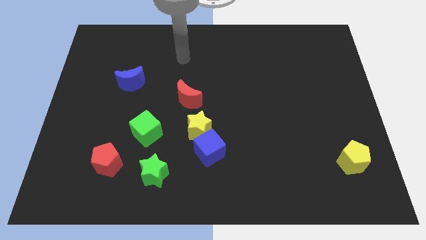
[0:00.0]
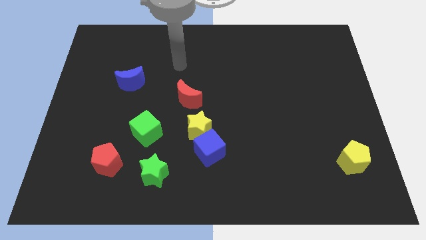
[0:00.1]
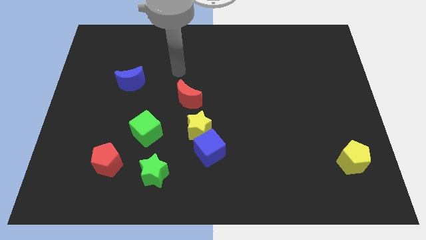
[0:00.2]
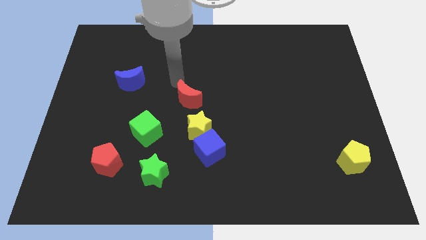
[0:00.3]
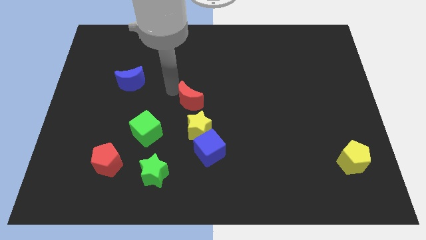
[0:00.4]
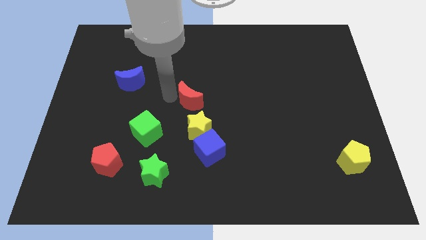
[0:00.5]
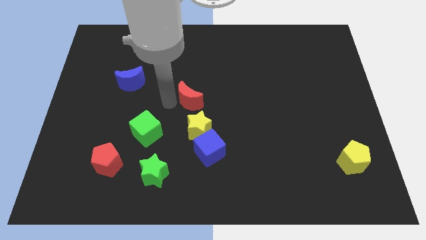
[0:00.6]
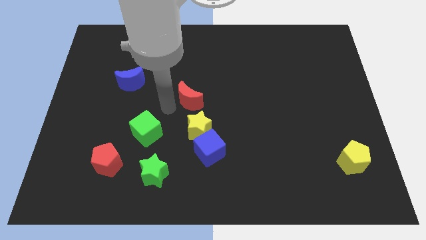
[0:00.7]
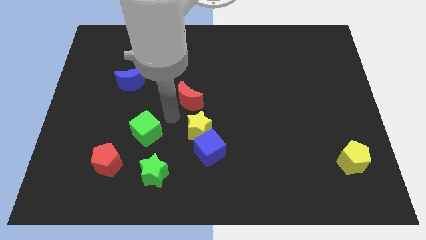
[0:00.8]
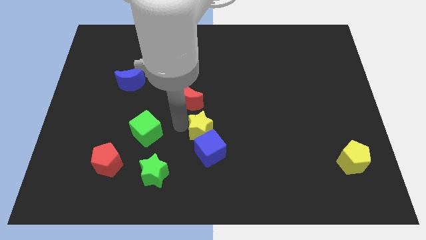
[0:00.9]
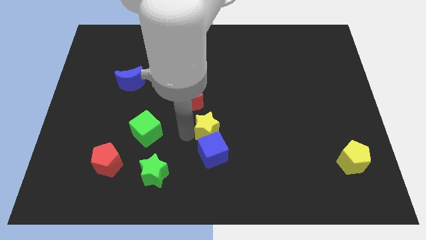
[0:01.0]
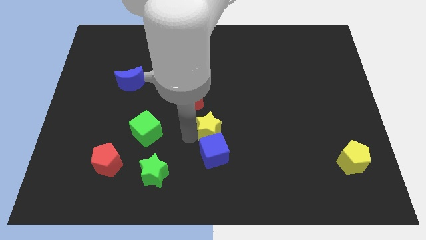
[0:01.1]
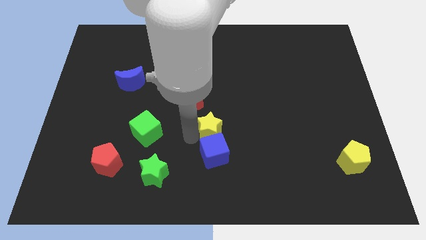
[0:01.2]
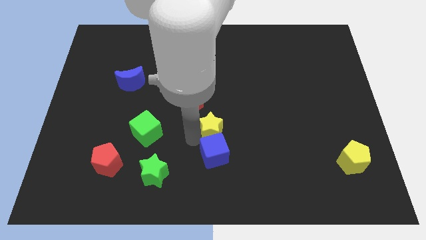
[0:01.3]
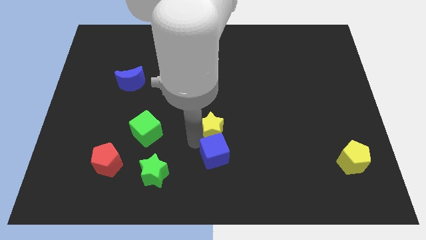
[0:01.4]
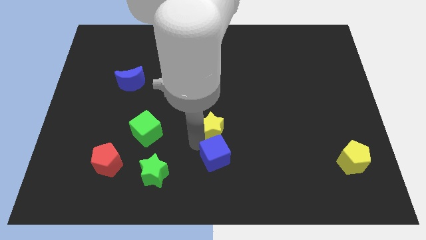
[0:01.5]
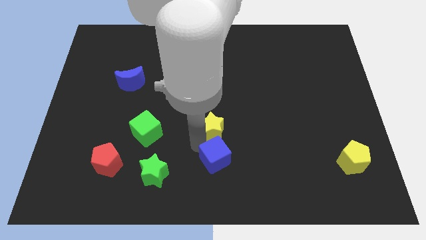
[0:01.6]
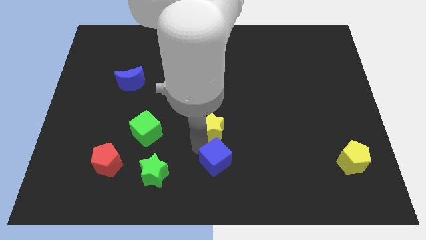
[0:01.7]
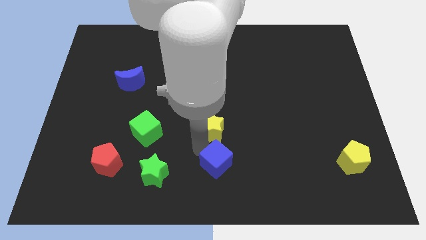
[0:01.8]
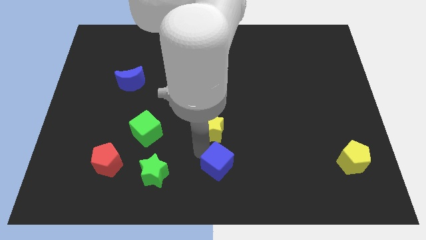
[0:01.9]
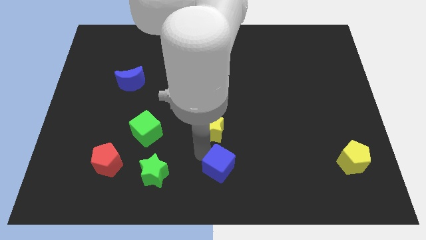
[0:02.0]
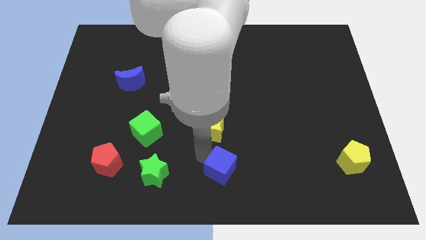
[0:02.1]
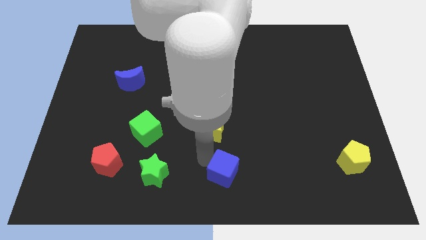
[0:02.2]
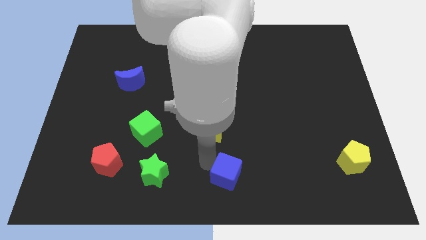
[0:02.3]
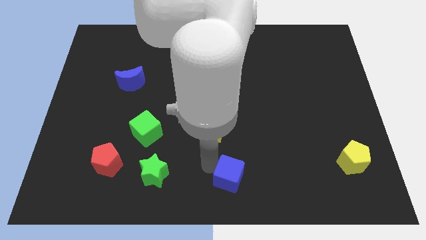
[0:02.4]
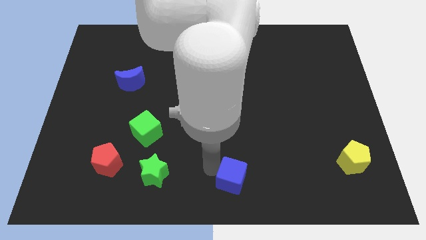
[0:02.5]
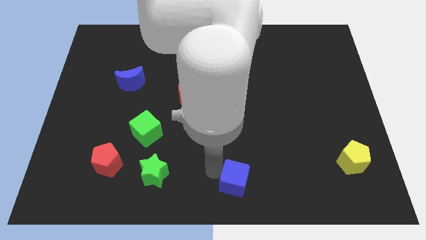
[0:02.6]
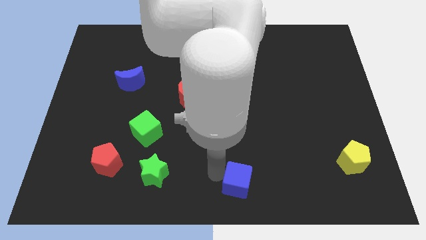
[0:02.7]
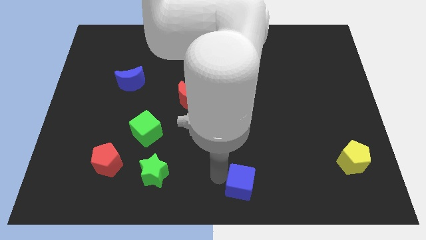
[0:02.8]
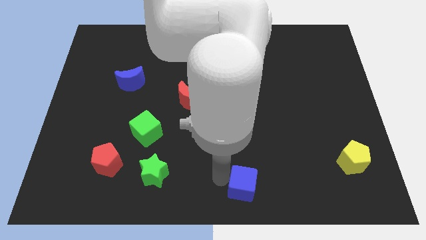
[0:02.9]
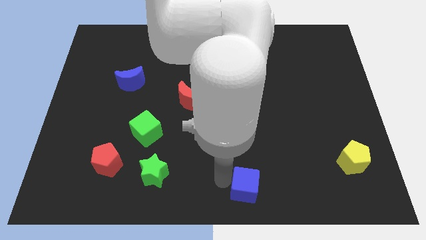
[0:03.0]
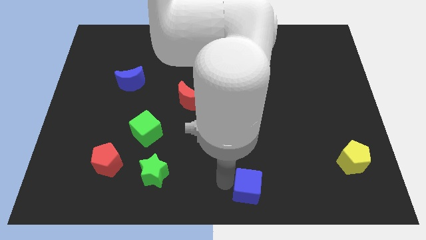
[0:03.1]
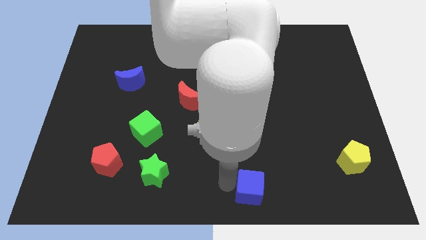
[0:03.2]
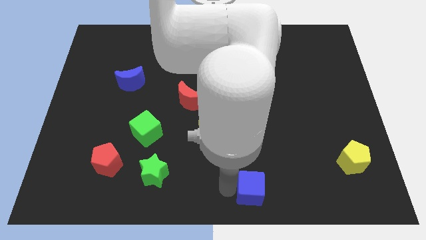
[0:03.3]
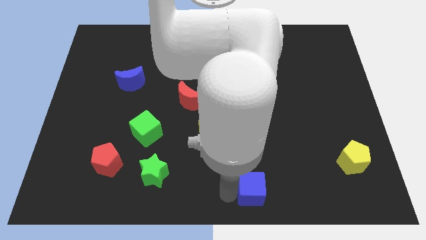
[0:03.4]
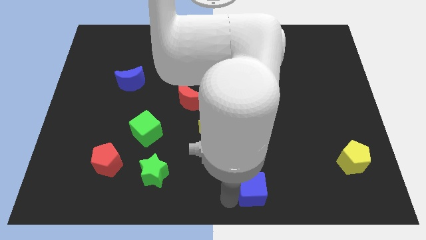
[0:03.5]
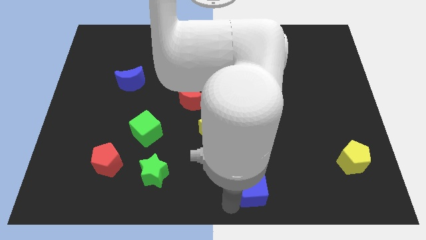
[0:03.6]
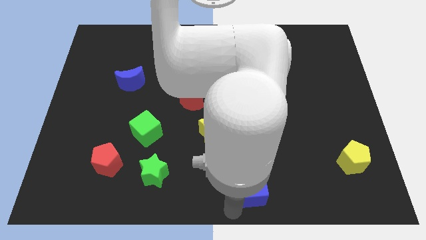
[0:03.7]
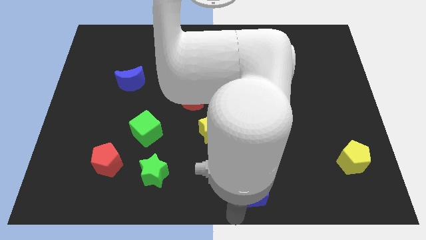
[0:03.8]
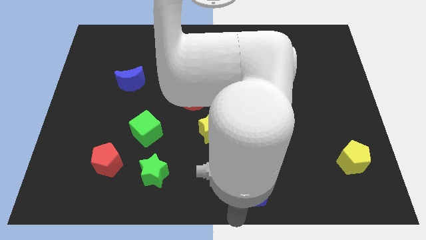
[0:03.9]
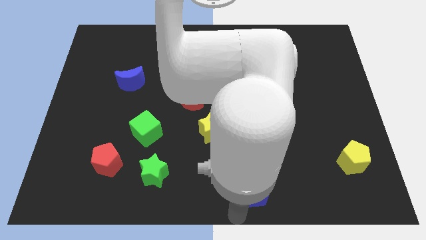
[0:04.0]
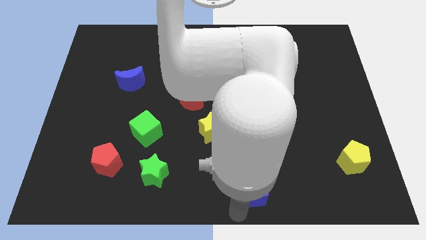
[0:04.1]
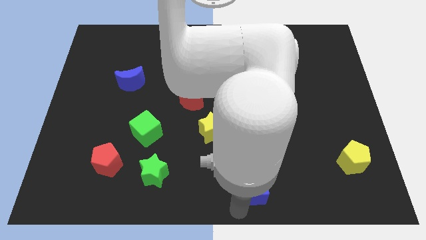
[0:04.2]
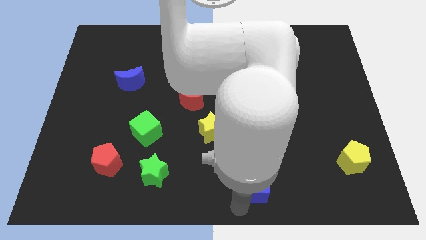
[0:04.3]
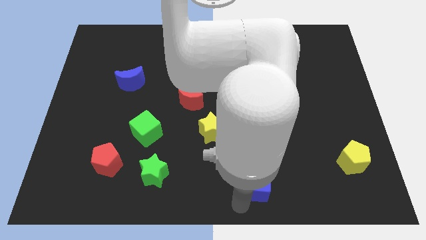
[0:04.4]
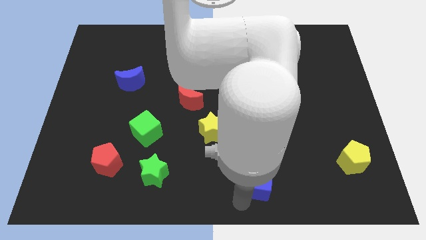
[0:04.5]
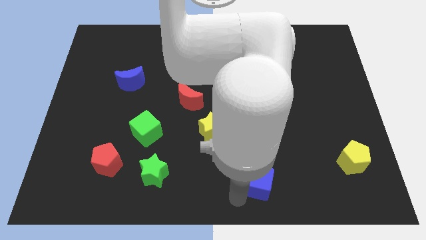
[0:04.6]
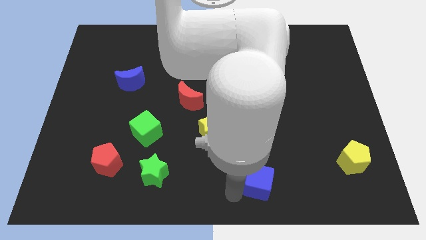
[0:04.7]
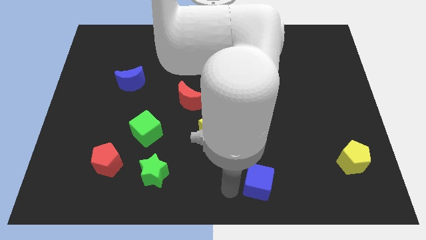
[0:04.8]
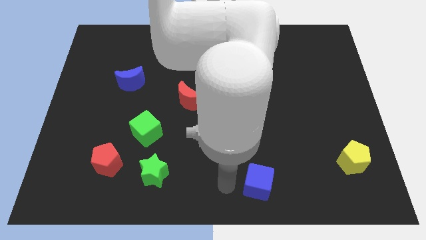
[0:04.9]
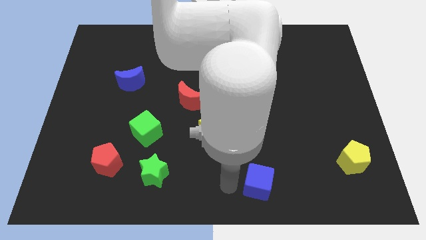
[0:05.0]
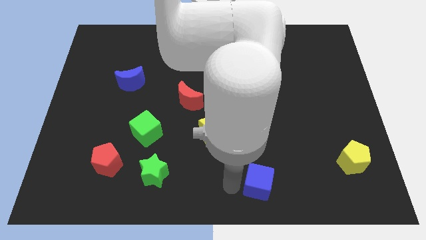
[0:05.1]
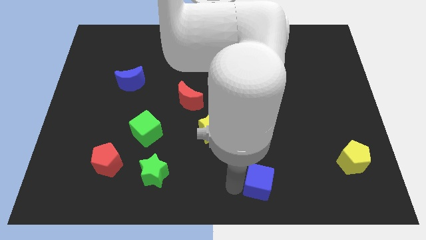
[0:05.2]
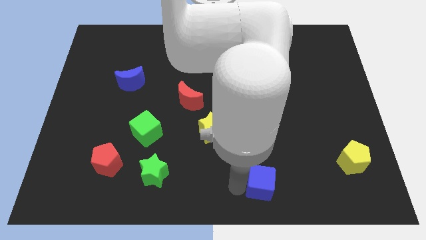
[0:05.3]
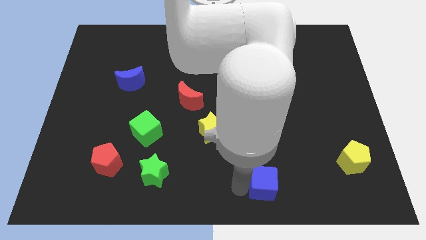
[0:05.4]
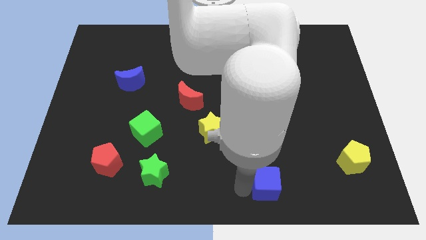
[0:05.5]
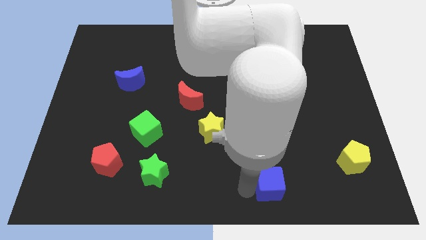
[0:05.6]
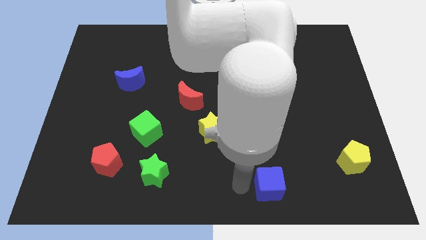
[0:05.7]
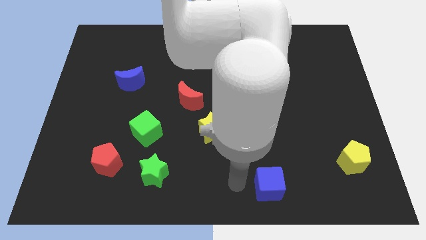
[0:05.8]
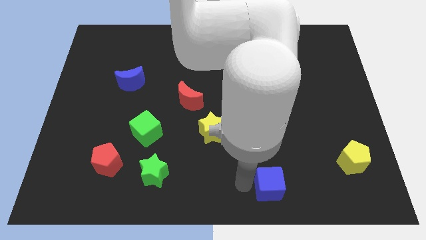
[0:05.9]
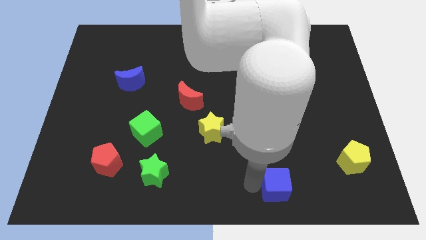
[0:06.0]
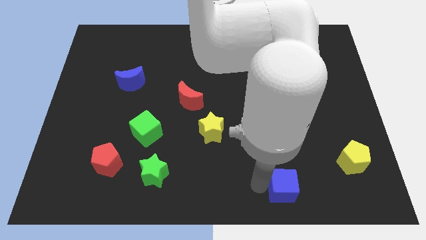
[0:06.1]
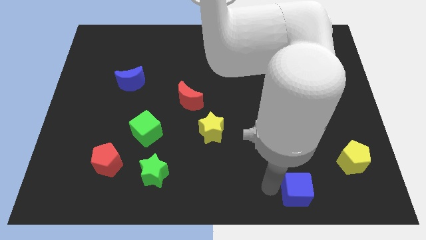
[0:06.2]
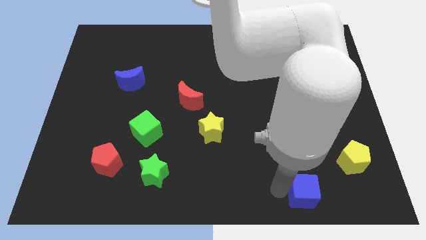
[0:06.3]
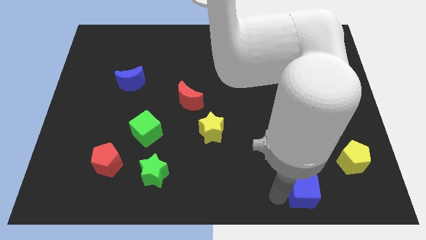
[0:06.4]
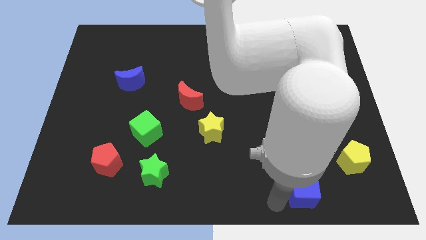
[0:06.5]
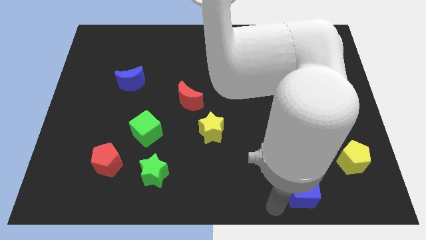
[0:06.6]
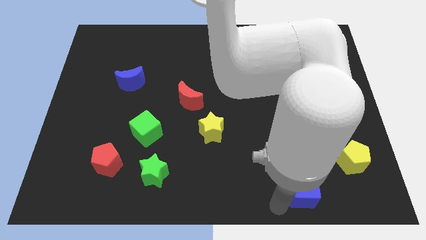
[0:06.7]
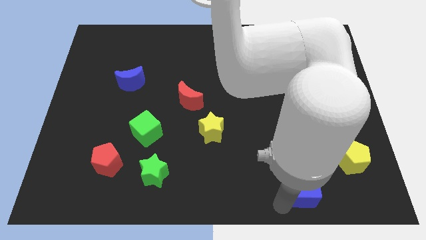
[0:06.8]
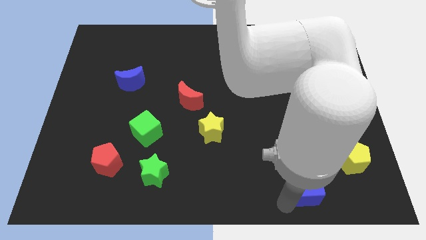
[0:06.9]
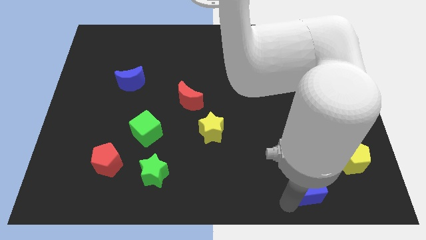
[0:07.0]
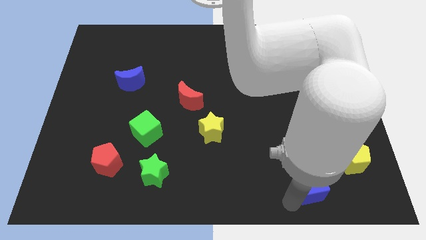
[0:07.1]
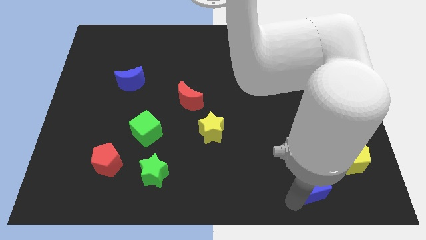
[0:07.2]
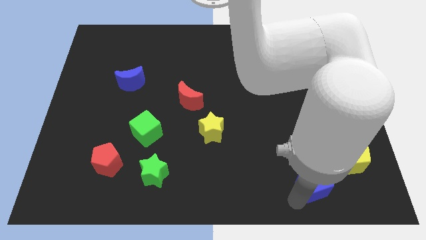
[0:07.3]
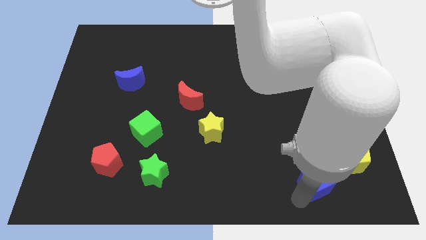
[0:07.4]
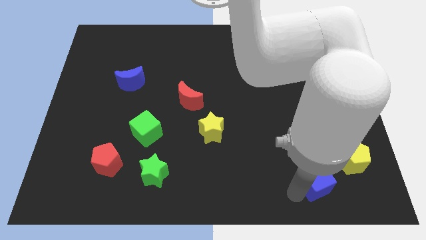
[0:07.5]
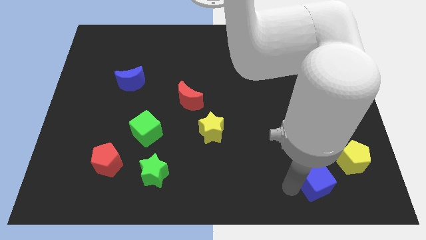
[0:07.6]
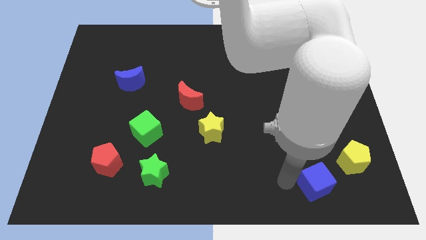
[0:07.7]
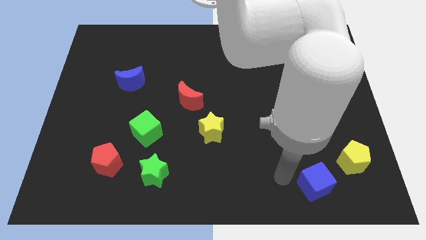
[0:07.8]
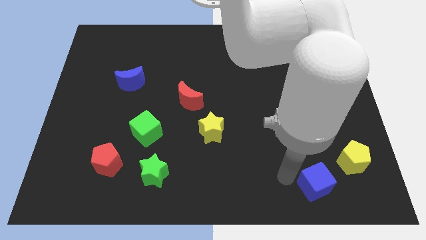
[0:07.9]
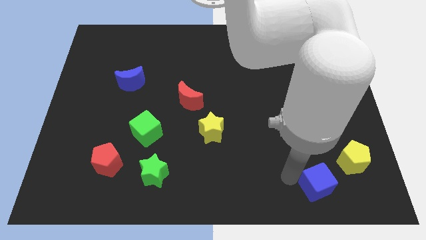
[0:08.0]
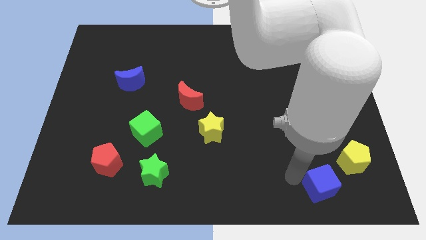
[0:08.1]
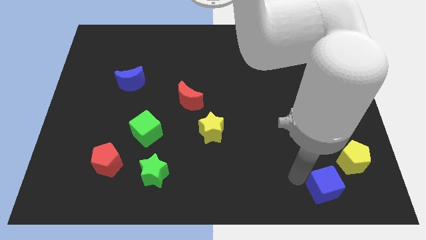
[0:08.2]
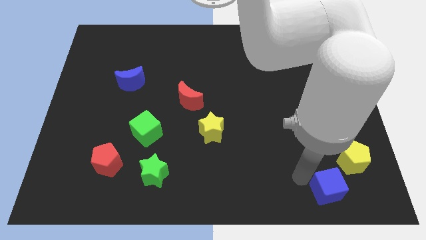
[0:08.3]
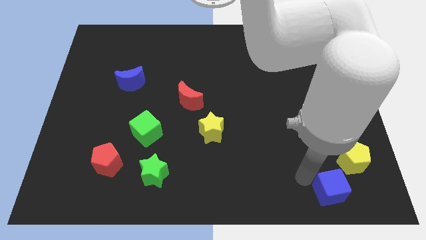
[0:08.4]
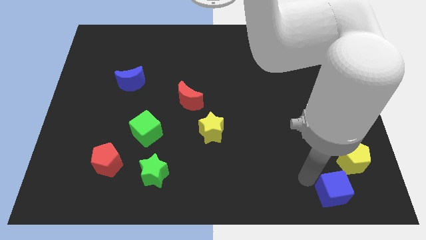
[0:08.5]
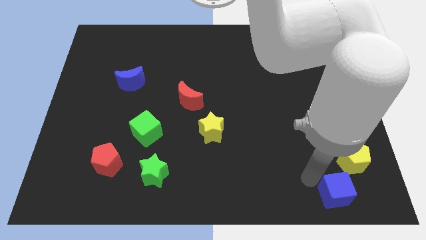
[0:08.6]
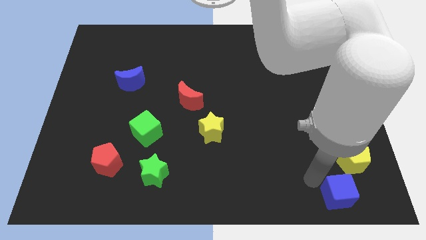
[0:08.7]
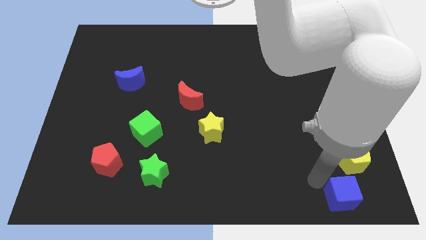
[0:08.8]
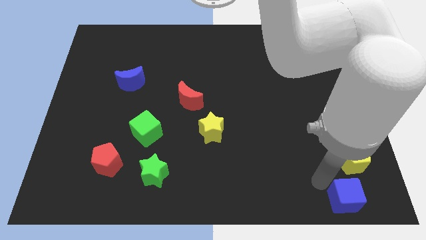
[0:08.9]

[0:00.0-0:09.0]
push the blue cube to the bottom right of the board
